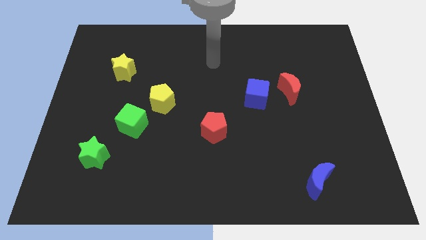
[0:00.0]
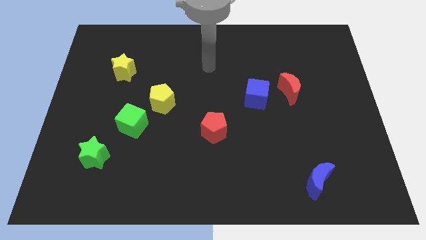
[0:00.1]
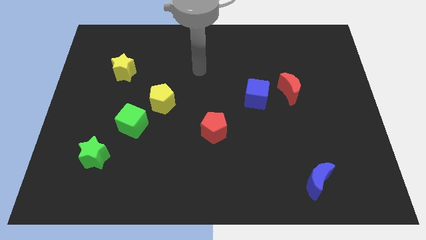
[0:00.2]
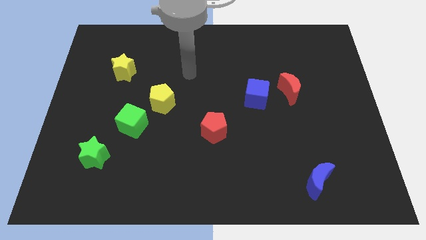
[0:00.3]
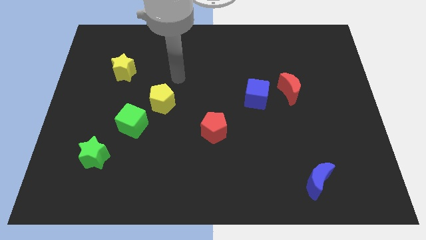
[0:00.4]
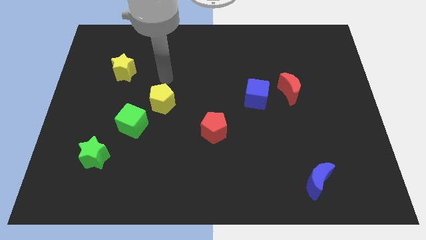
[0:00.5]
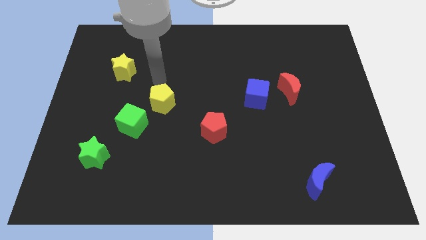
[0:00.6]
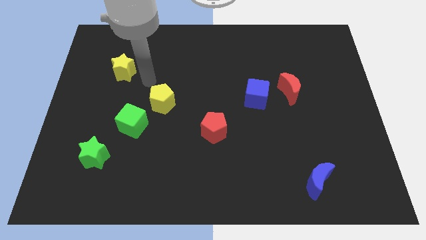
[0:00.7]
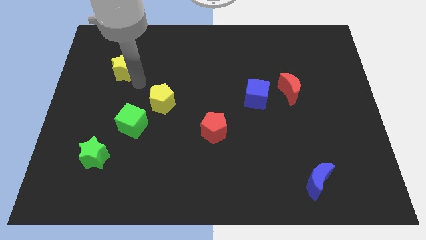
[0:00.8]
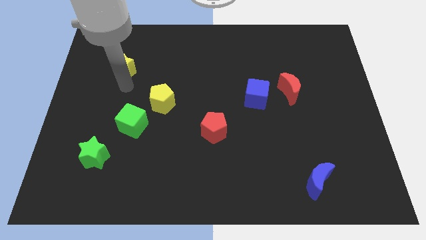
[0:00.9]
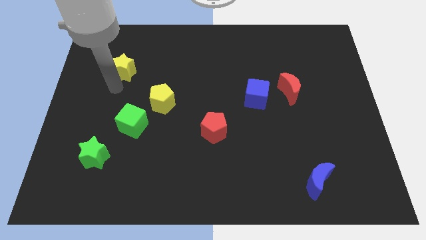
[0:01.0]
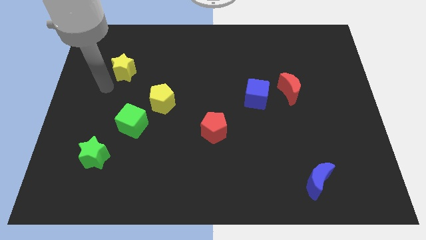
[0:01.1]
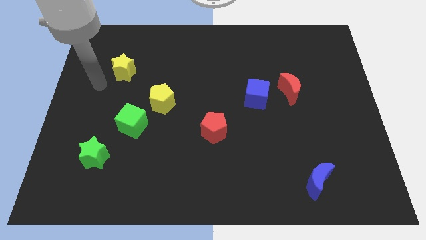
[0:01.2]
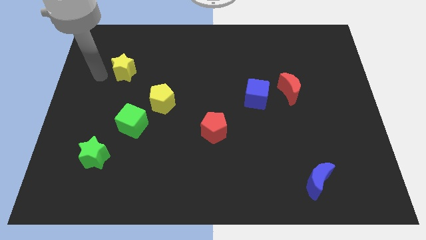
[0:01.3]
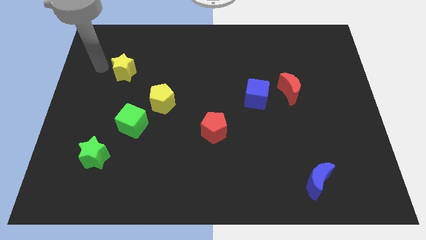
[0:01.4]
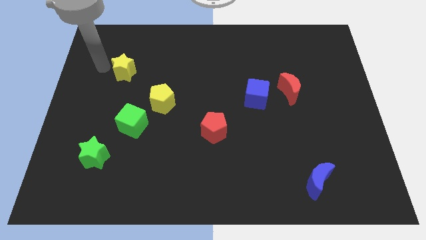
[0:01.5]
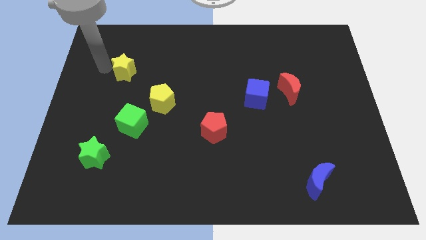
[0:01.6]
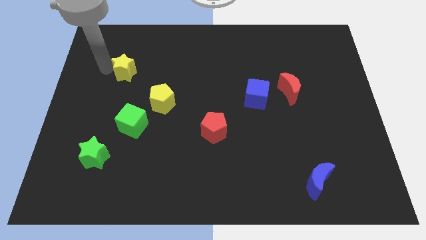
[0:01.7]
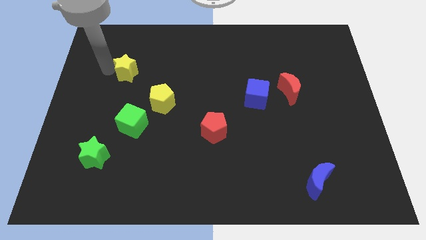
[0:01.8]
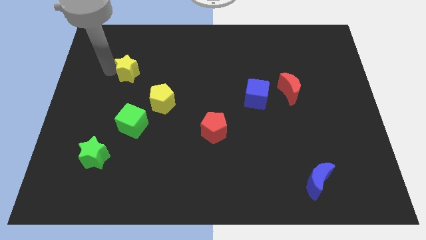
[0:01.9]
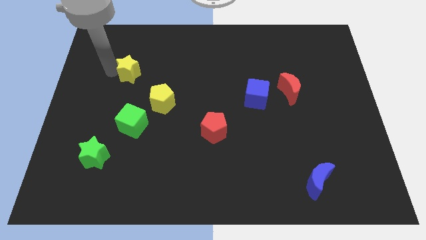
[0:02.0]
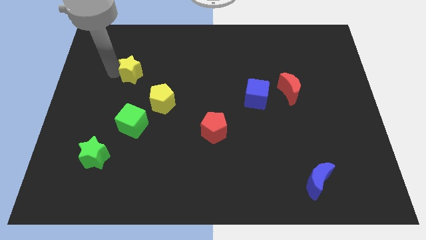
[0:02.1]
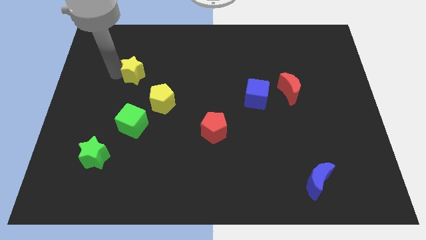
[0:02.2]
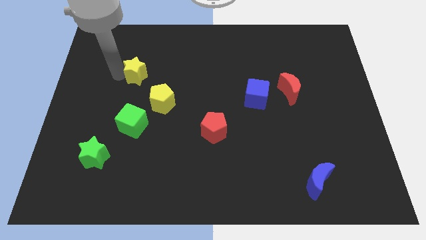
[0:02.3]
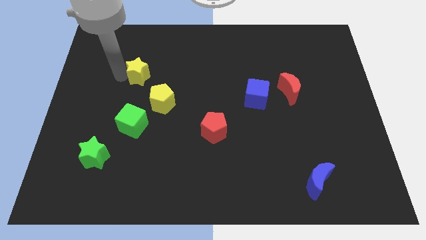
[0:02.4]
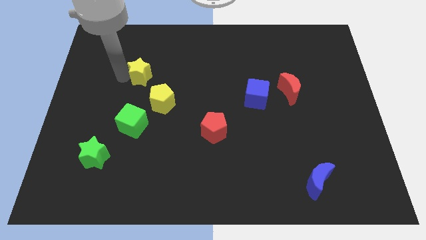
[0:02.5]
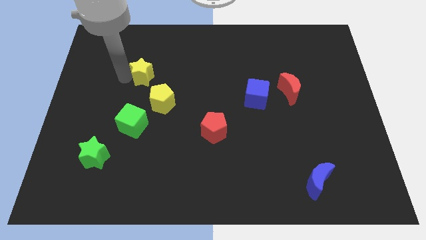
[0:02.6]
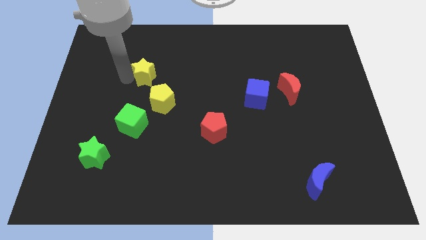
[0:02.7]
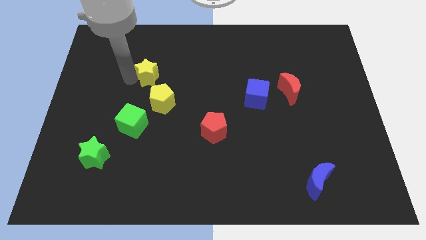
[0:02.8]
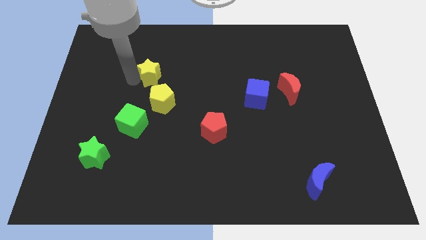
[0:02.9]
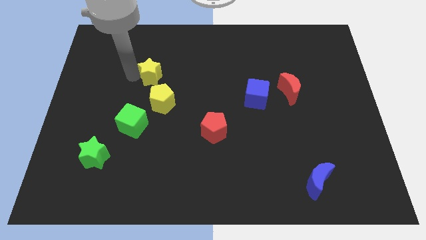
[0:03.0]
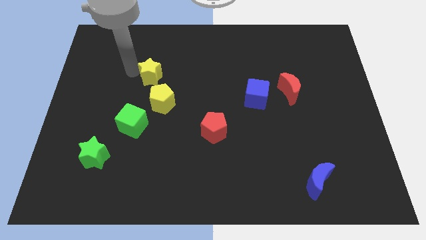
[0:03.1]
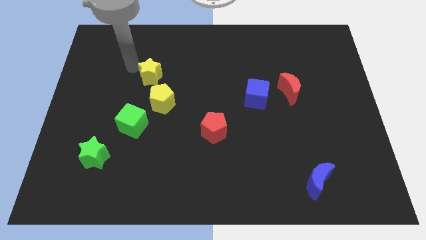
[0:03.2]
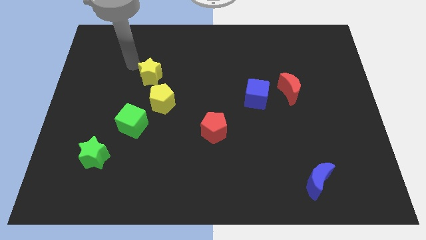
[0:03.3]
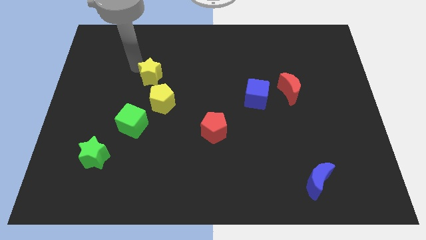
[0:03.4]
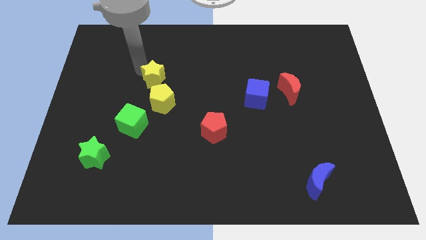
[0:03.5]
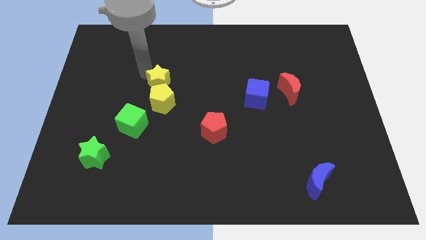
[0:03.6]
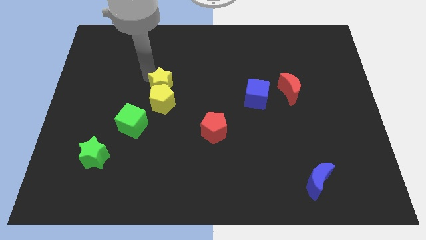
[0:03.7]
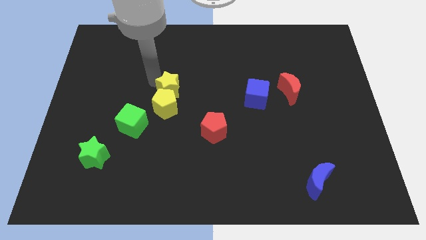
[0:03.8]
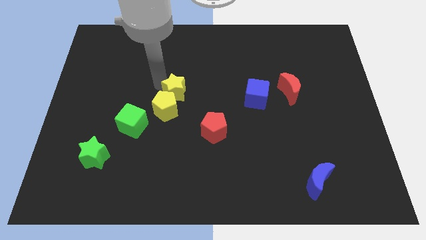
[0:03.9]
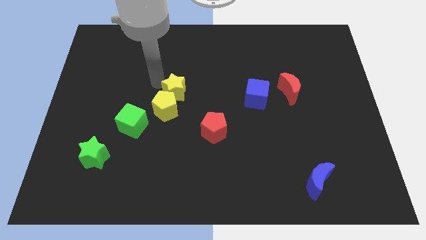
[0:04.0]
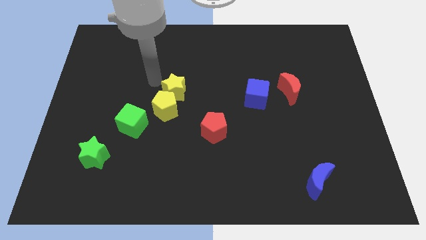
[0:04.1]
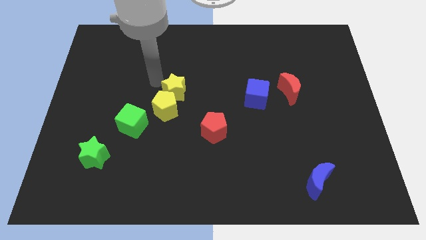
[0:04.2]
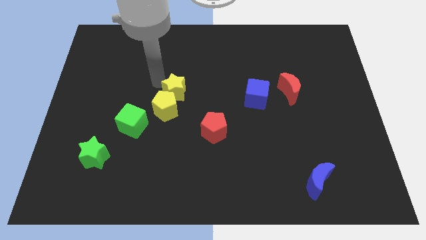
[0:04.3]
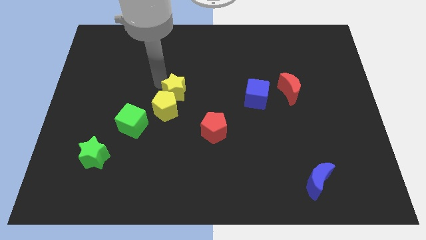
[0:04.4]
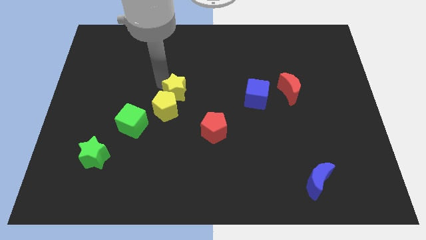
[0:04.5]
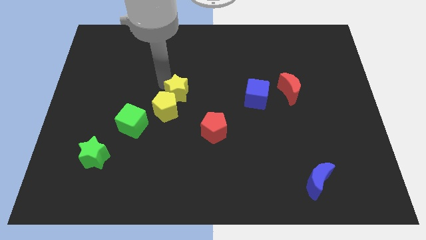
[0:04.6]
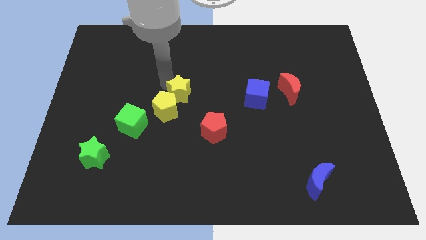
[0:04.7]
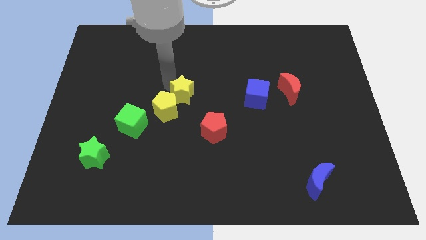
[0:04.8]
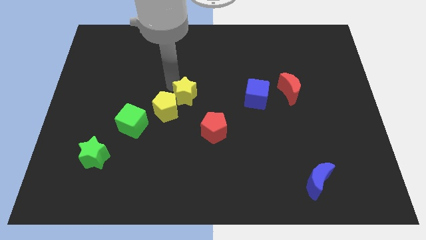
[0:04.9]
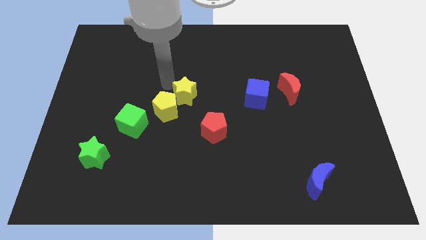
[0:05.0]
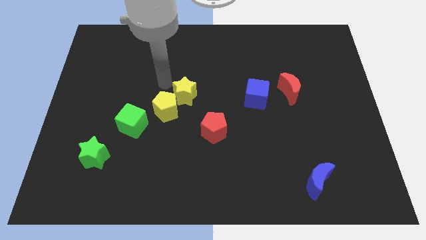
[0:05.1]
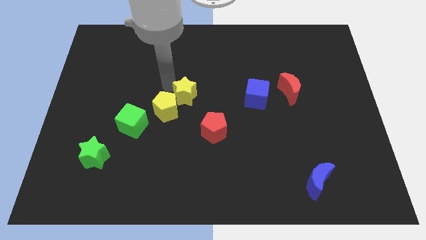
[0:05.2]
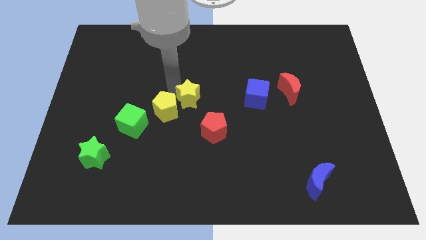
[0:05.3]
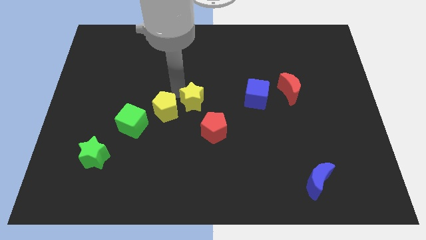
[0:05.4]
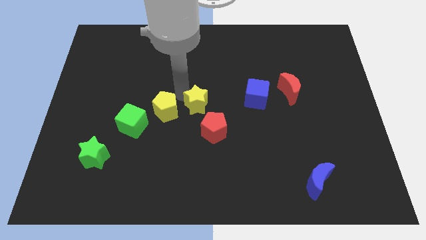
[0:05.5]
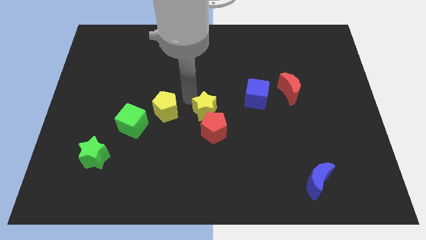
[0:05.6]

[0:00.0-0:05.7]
push the yellow star to the red pentagon

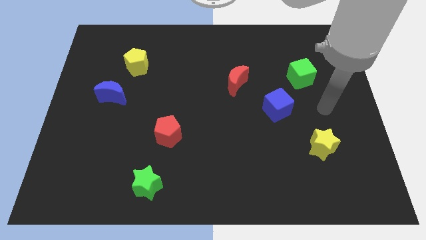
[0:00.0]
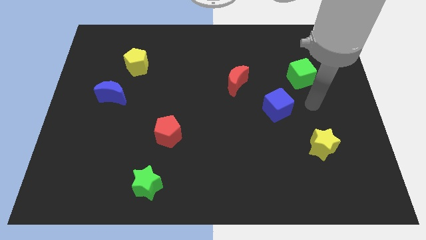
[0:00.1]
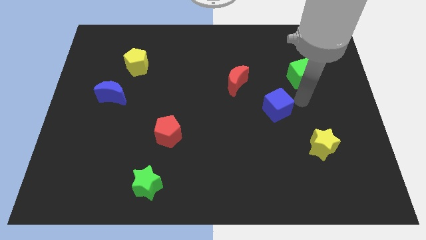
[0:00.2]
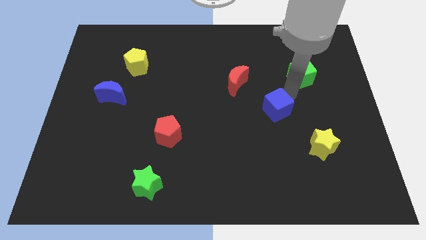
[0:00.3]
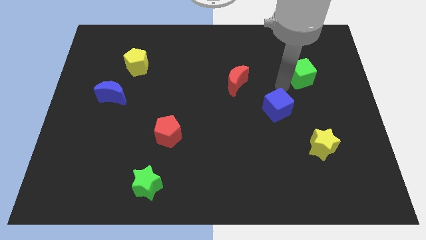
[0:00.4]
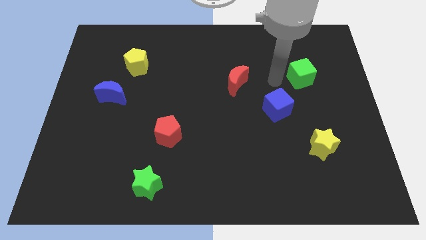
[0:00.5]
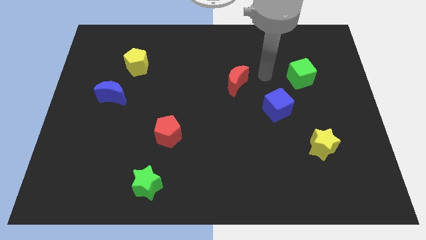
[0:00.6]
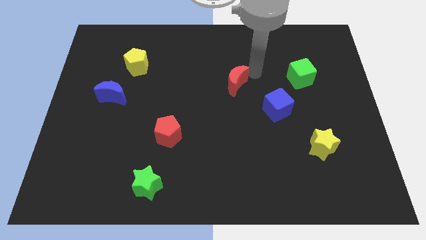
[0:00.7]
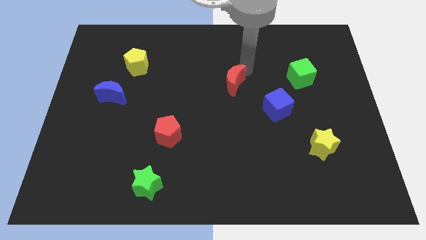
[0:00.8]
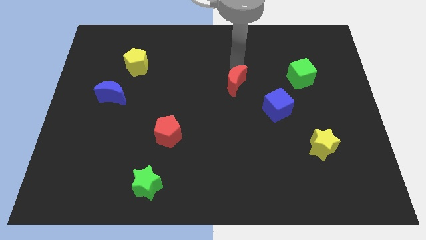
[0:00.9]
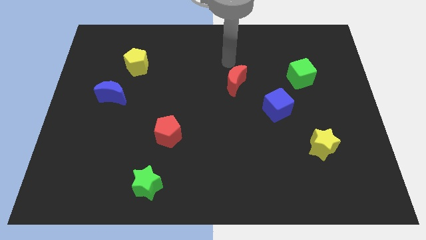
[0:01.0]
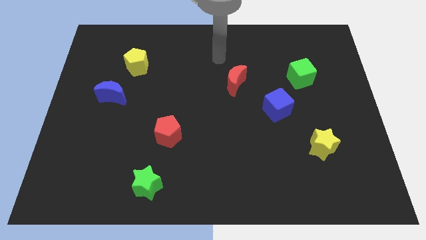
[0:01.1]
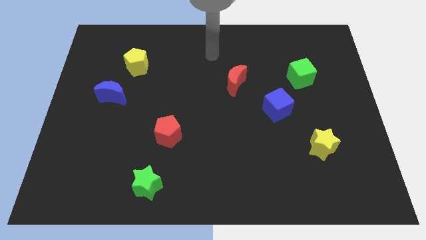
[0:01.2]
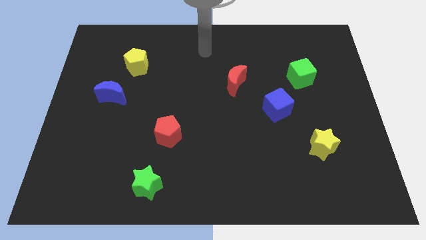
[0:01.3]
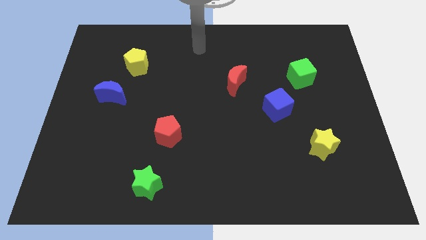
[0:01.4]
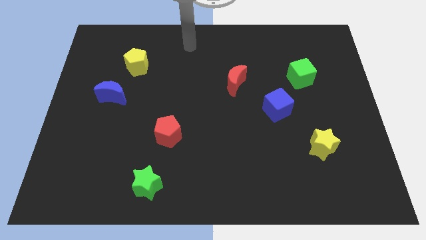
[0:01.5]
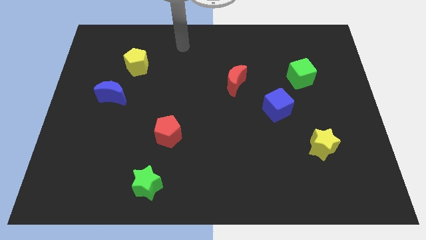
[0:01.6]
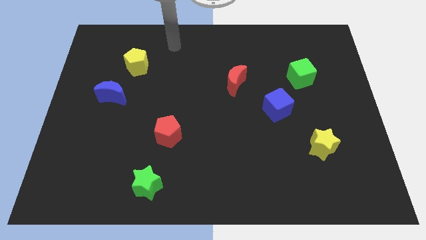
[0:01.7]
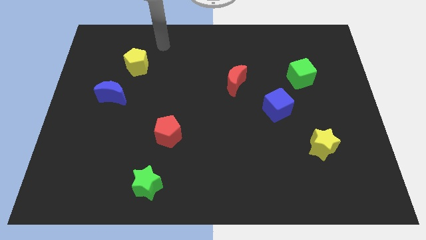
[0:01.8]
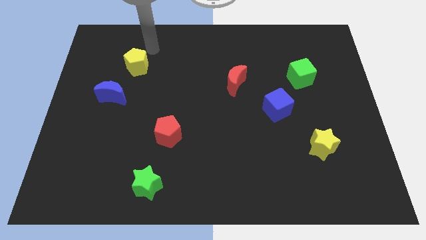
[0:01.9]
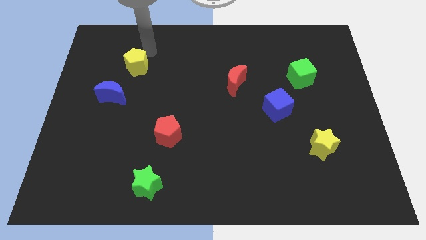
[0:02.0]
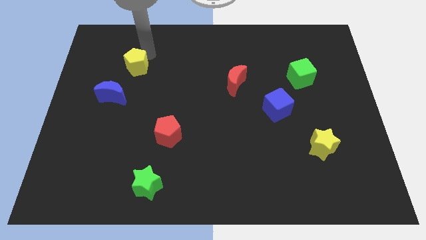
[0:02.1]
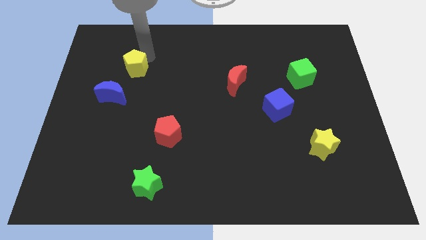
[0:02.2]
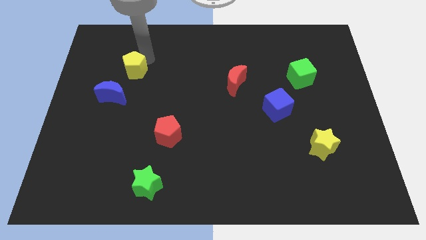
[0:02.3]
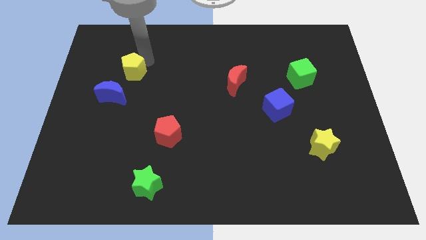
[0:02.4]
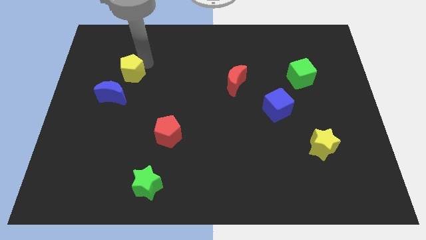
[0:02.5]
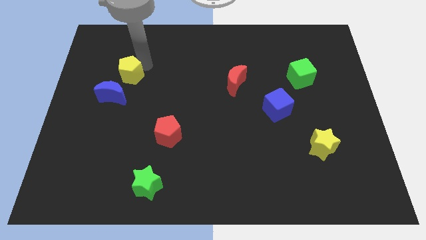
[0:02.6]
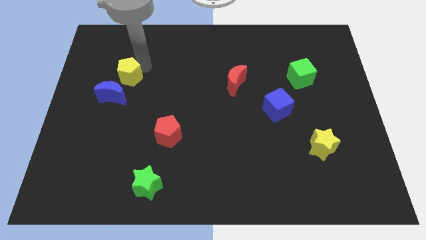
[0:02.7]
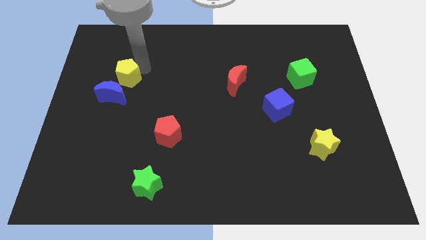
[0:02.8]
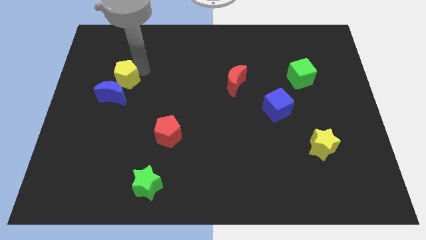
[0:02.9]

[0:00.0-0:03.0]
put the yellow pentagon towards the blue moon
